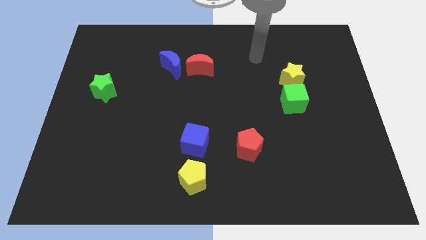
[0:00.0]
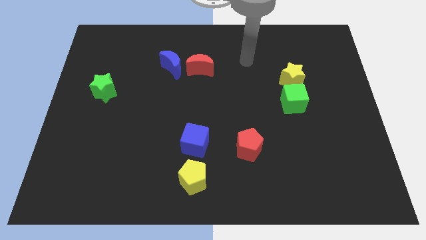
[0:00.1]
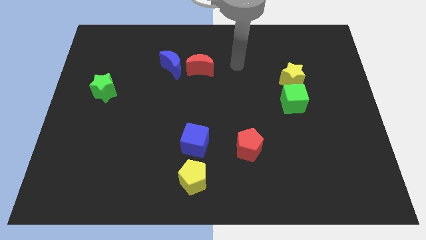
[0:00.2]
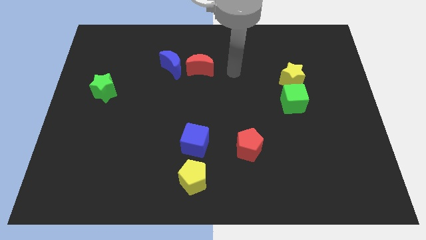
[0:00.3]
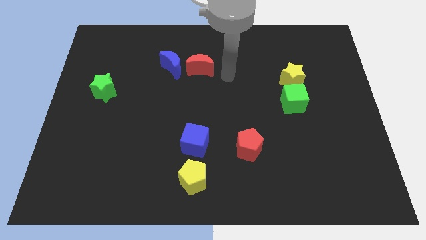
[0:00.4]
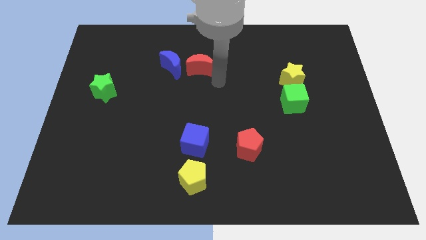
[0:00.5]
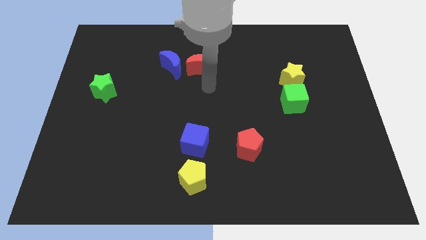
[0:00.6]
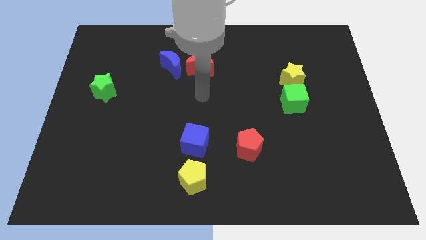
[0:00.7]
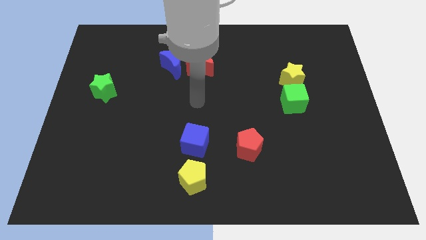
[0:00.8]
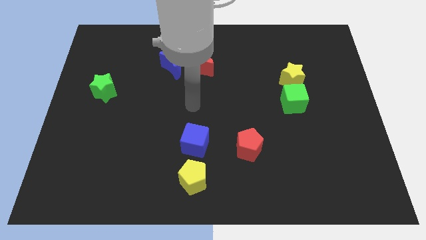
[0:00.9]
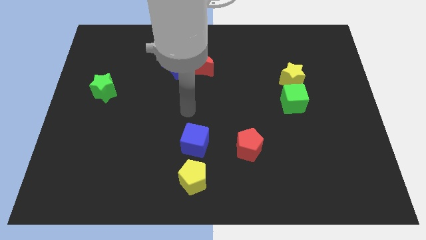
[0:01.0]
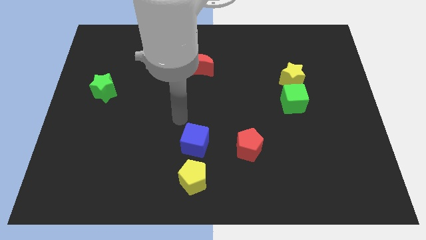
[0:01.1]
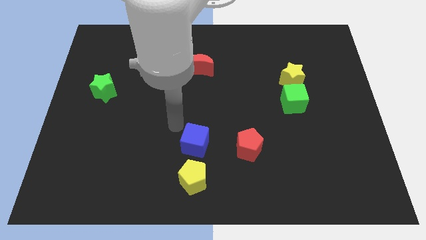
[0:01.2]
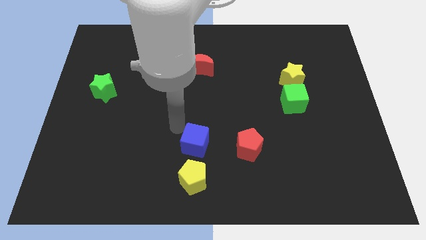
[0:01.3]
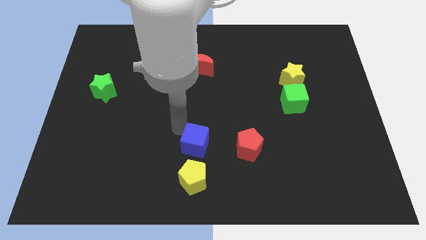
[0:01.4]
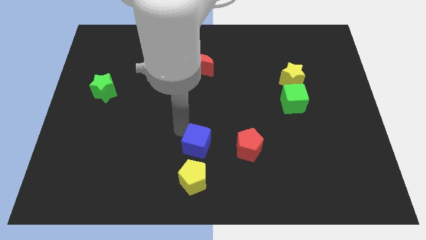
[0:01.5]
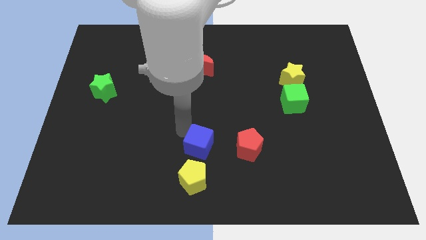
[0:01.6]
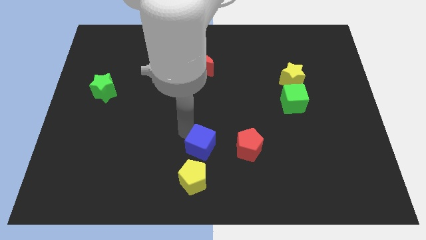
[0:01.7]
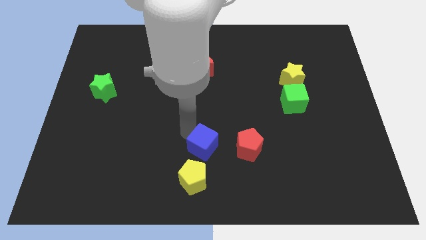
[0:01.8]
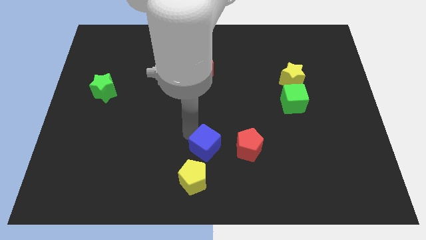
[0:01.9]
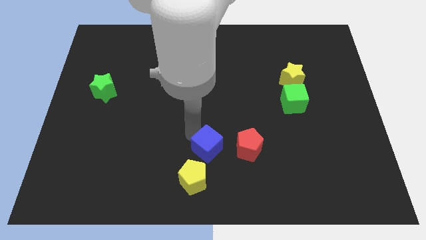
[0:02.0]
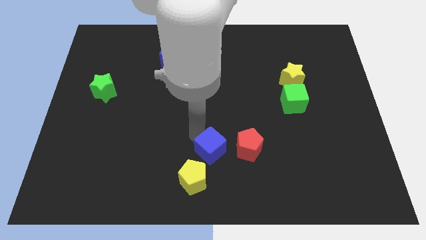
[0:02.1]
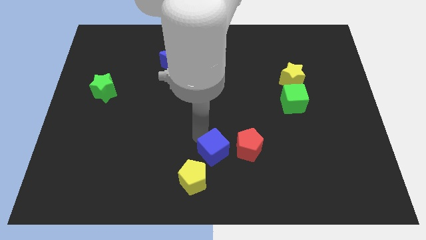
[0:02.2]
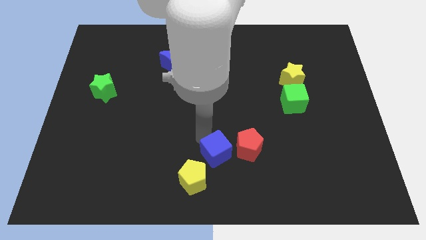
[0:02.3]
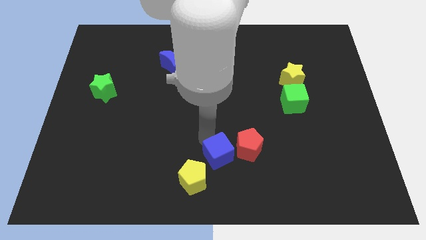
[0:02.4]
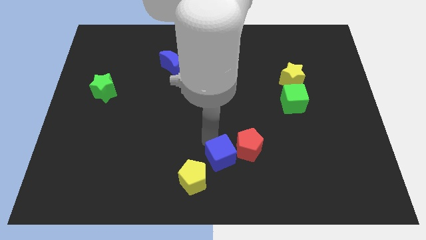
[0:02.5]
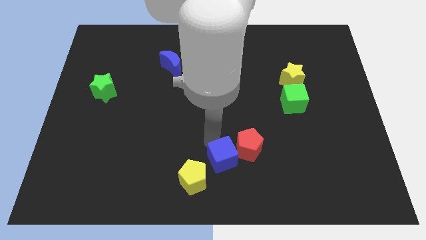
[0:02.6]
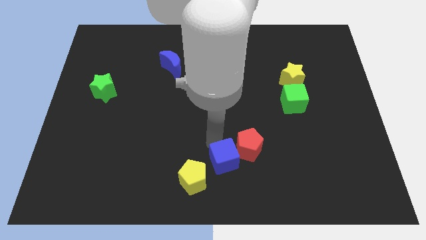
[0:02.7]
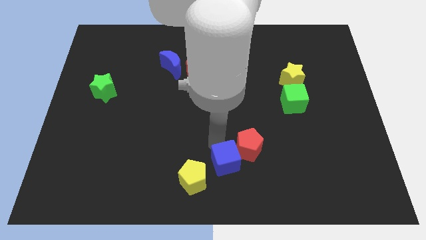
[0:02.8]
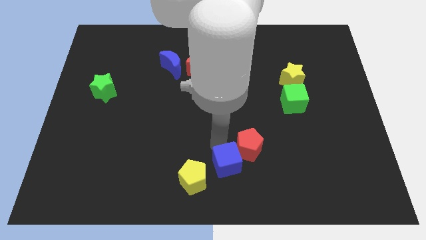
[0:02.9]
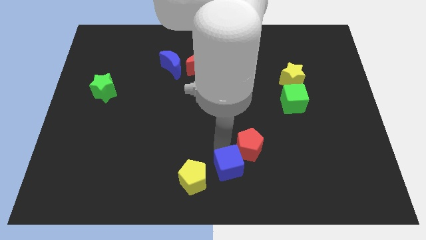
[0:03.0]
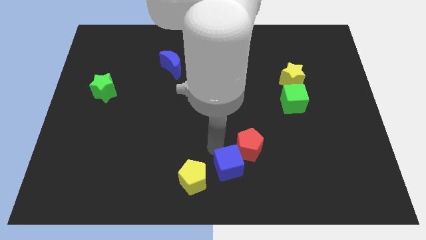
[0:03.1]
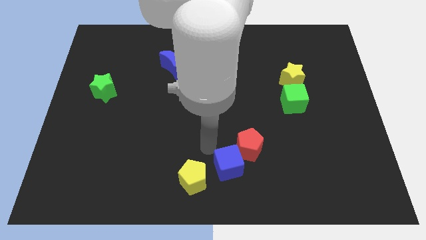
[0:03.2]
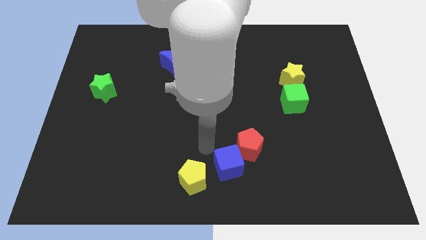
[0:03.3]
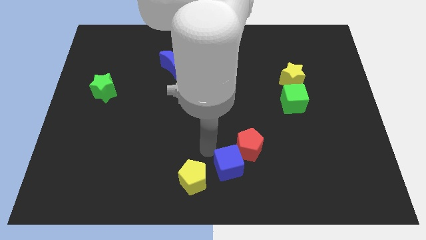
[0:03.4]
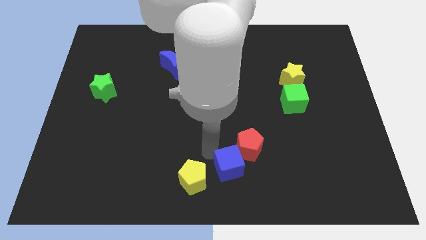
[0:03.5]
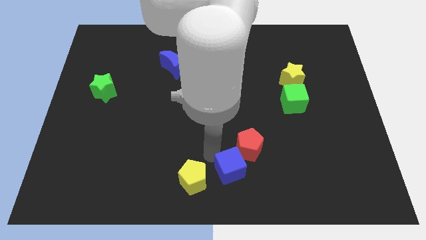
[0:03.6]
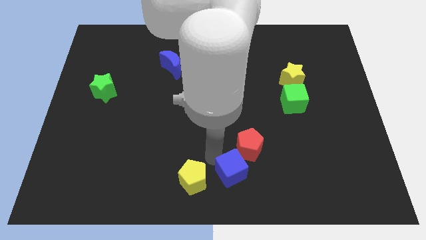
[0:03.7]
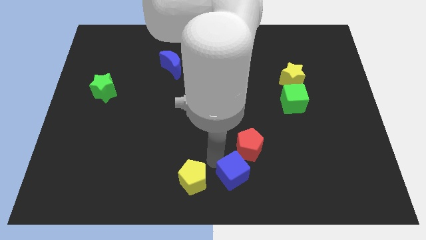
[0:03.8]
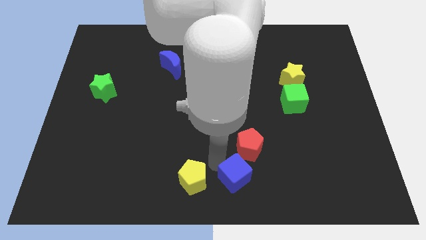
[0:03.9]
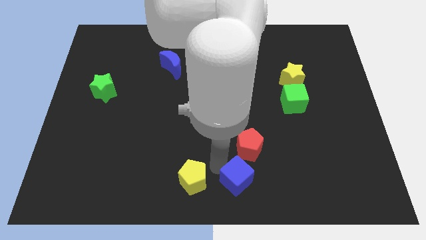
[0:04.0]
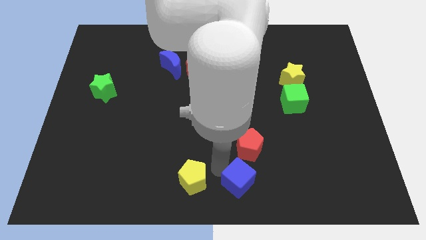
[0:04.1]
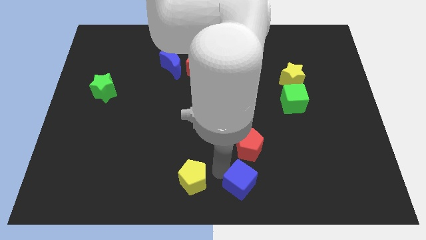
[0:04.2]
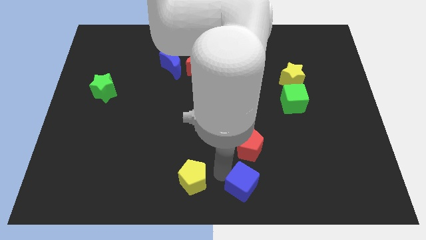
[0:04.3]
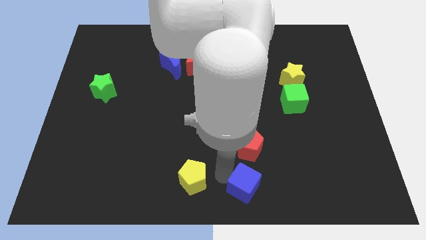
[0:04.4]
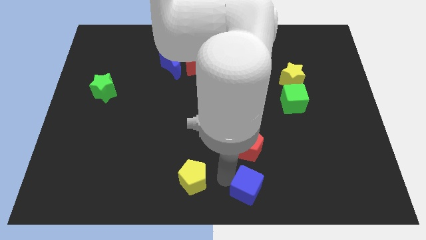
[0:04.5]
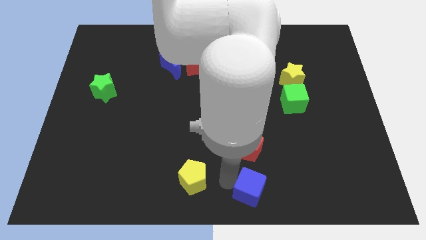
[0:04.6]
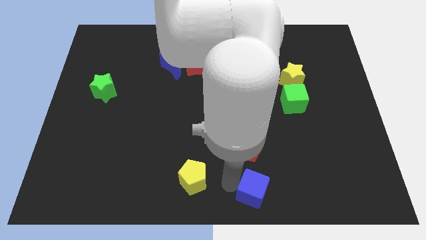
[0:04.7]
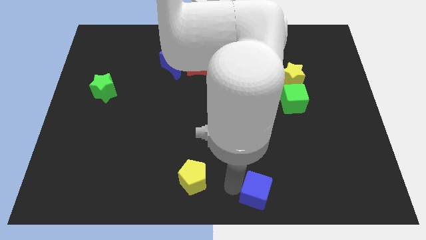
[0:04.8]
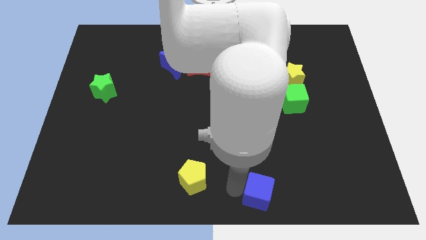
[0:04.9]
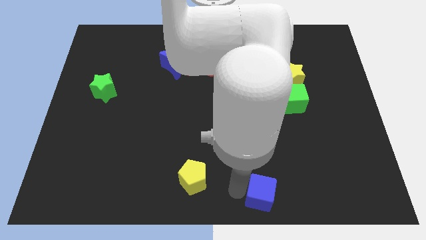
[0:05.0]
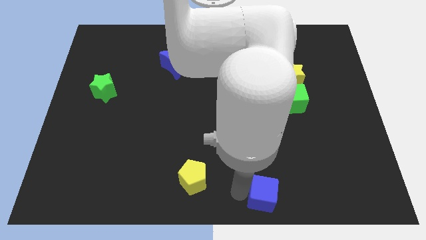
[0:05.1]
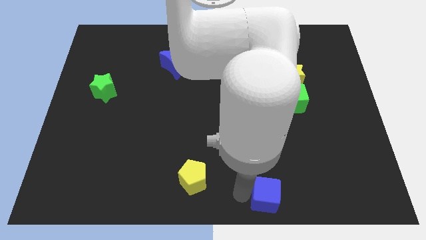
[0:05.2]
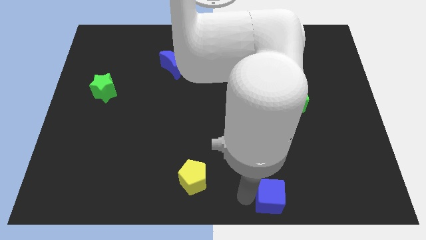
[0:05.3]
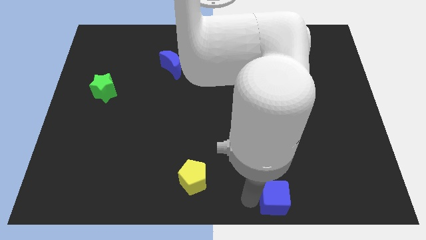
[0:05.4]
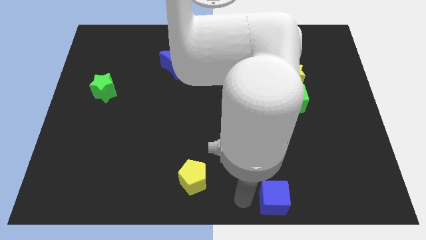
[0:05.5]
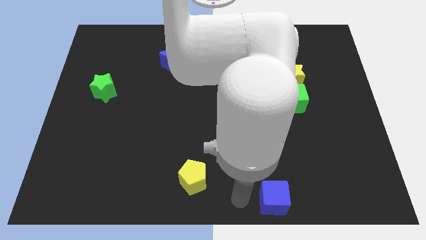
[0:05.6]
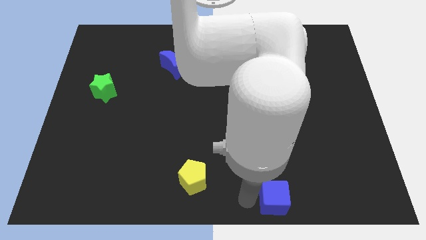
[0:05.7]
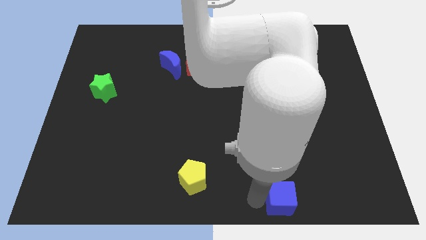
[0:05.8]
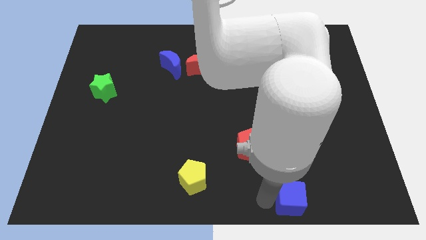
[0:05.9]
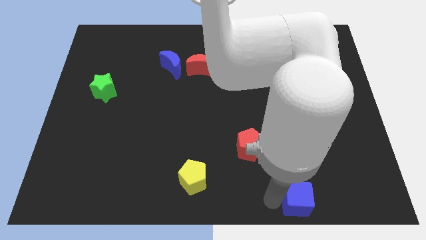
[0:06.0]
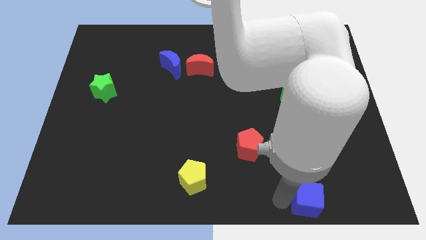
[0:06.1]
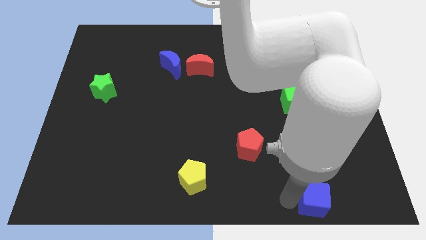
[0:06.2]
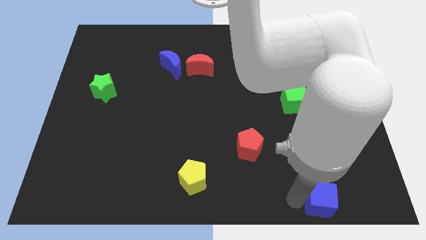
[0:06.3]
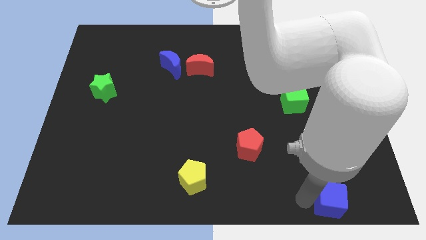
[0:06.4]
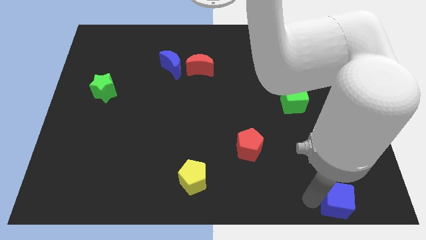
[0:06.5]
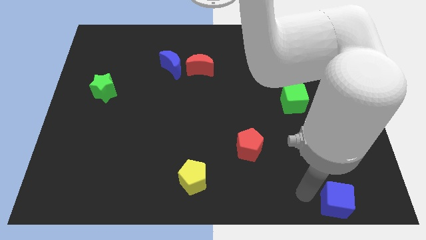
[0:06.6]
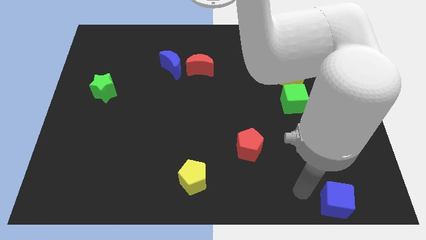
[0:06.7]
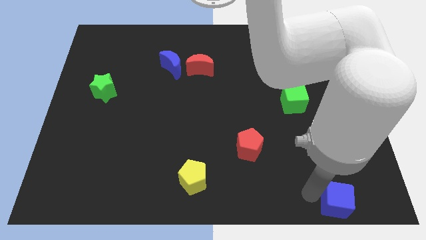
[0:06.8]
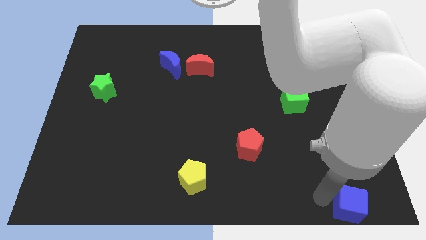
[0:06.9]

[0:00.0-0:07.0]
push the blue cube to the bottom right corner
